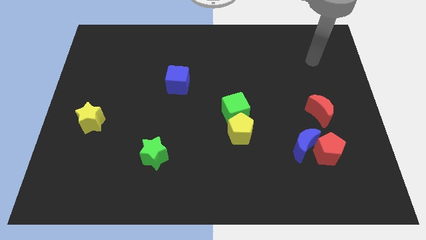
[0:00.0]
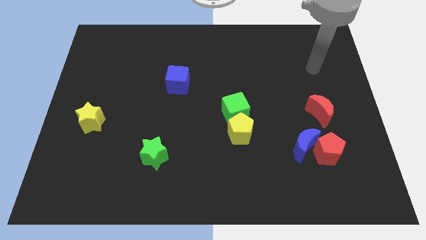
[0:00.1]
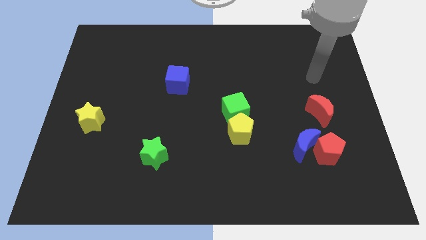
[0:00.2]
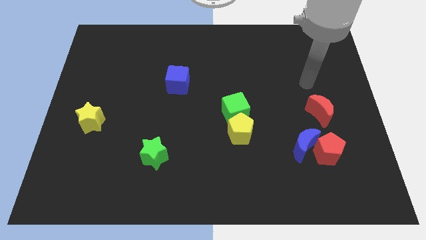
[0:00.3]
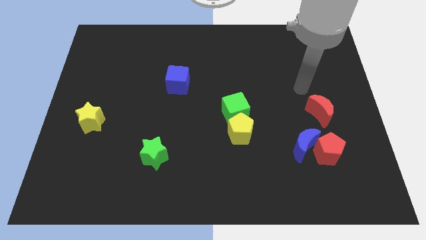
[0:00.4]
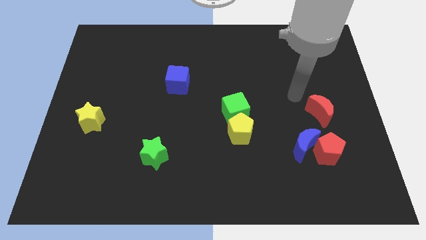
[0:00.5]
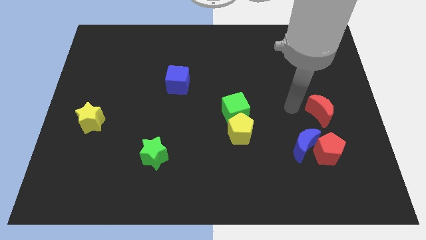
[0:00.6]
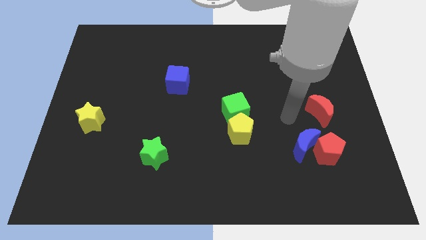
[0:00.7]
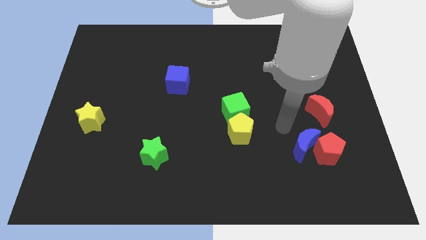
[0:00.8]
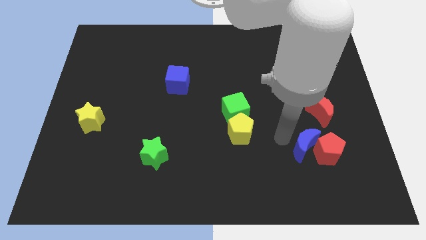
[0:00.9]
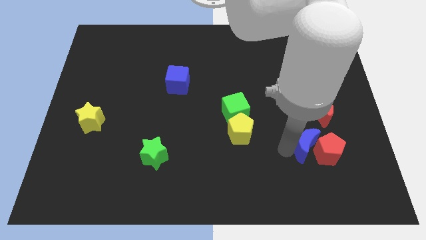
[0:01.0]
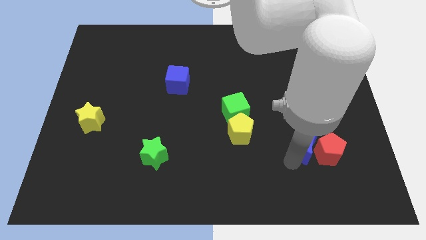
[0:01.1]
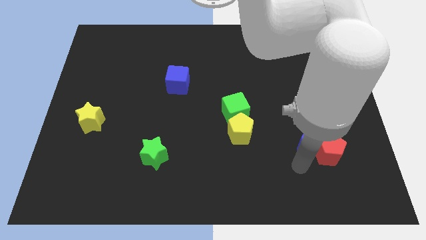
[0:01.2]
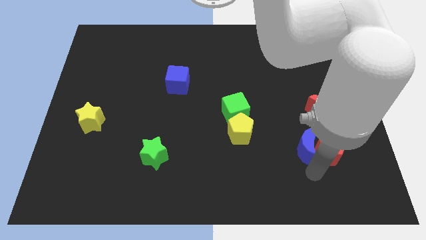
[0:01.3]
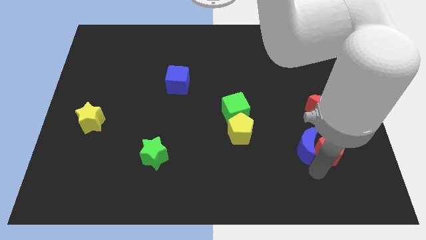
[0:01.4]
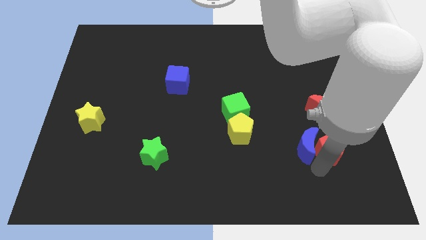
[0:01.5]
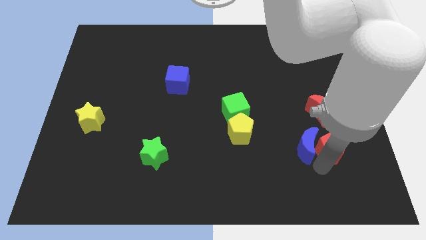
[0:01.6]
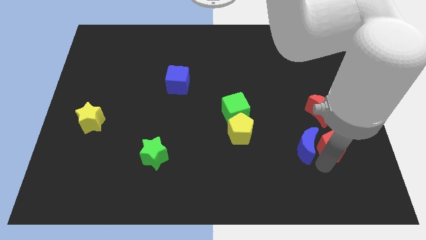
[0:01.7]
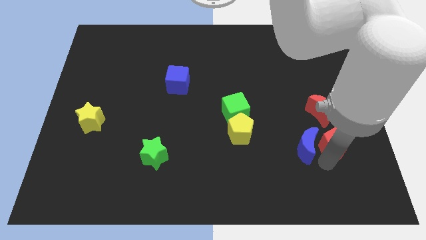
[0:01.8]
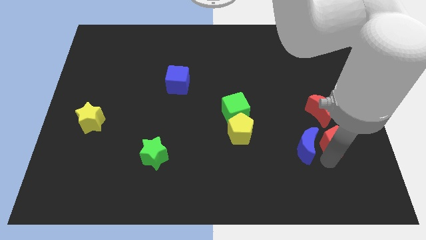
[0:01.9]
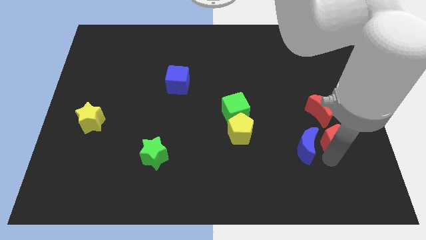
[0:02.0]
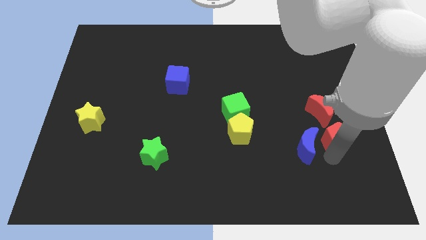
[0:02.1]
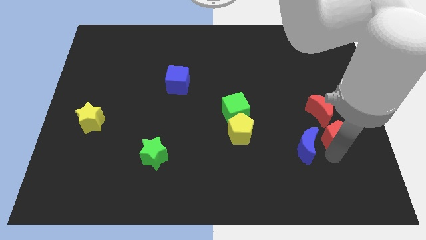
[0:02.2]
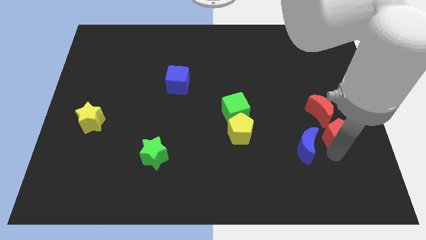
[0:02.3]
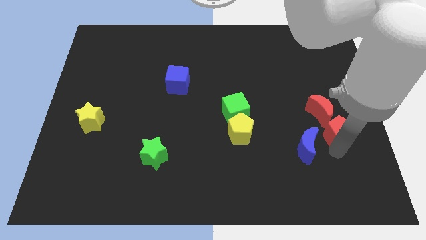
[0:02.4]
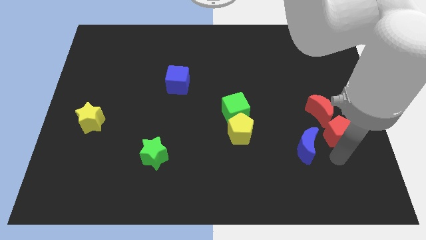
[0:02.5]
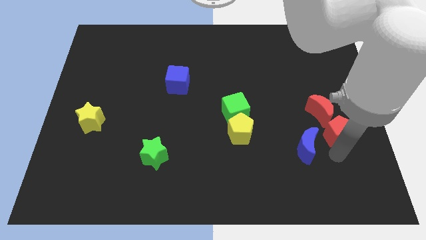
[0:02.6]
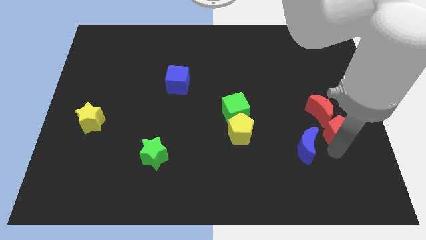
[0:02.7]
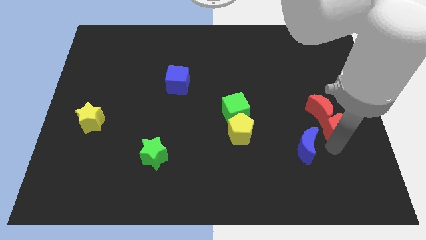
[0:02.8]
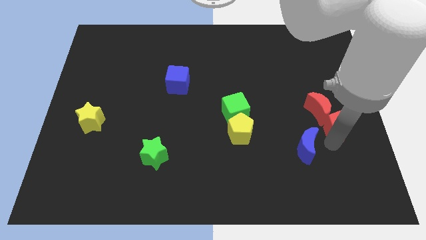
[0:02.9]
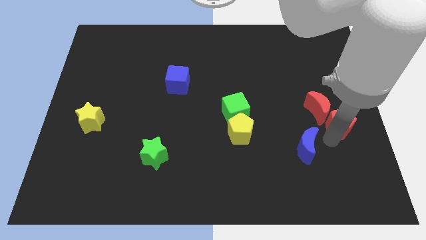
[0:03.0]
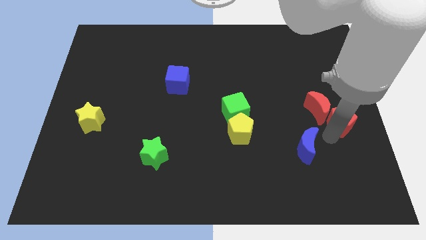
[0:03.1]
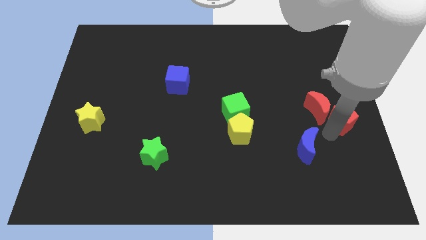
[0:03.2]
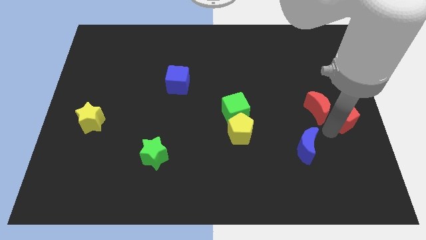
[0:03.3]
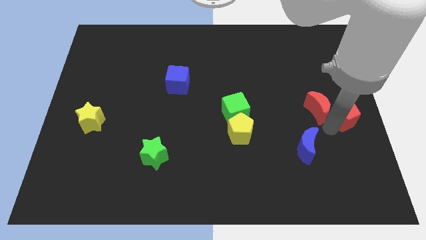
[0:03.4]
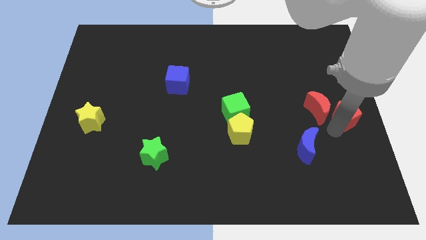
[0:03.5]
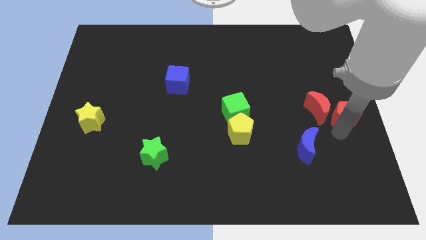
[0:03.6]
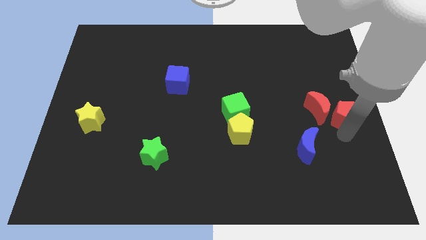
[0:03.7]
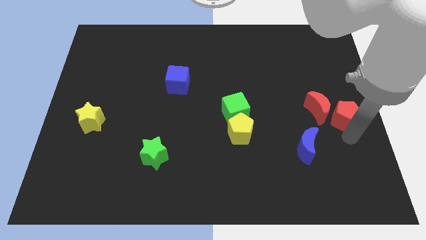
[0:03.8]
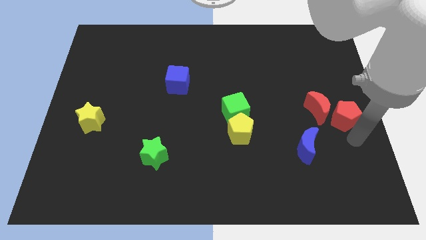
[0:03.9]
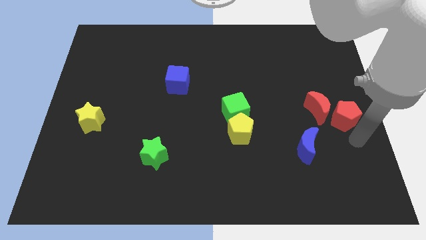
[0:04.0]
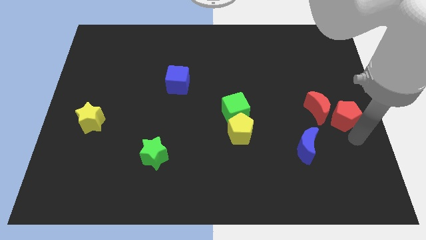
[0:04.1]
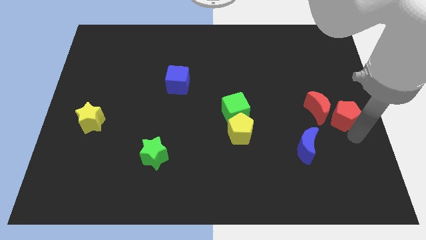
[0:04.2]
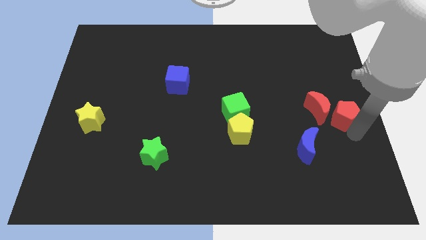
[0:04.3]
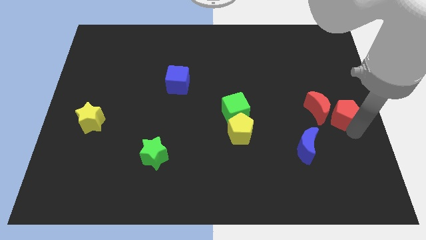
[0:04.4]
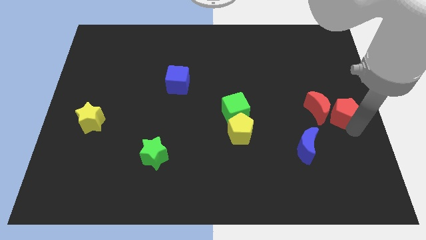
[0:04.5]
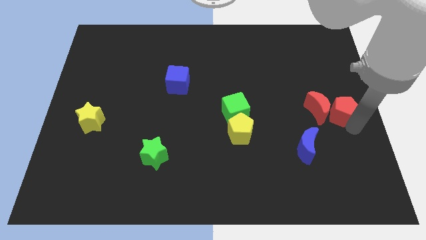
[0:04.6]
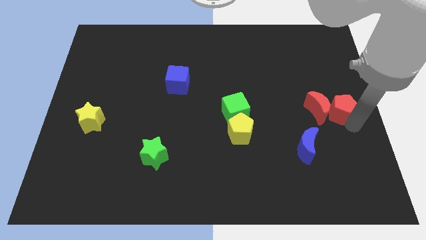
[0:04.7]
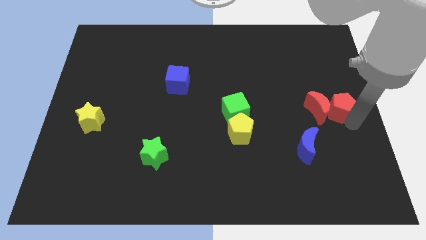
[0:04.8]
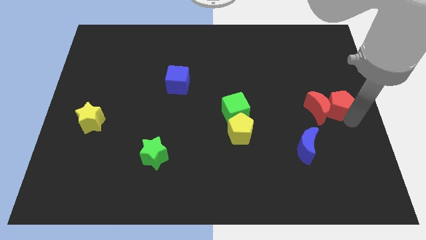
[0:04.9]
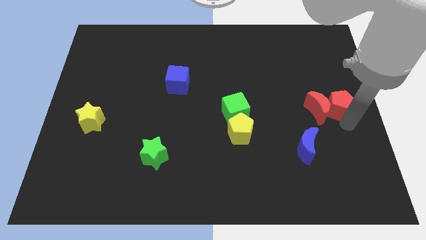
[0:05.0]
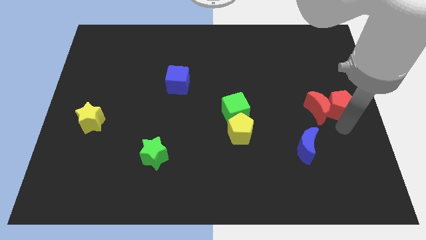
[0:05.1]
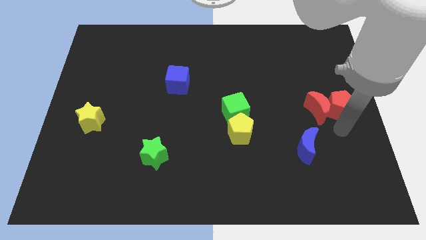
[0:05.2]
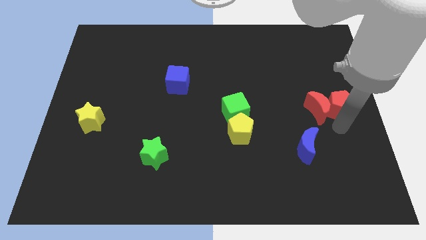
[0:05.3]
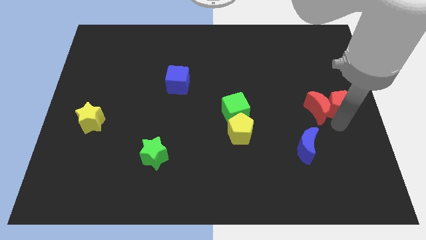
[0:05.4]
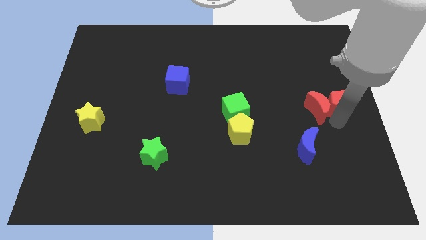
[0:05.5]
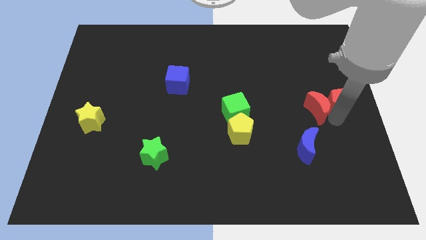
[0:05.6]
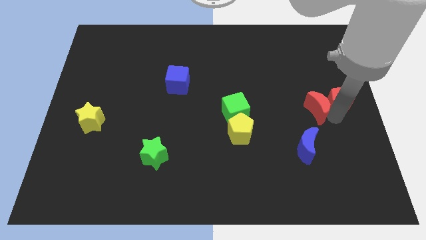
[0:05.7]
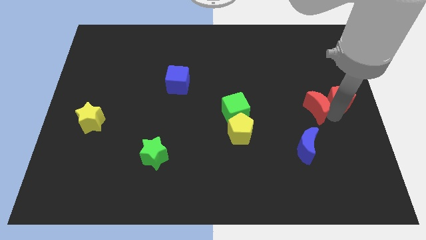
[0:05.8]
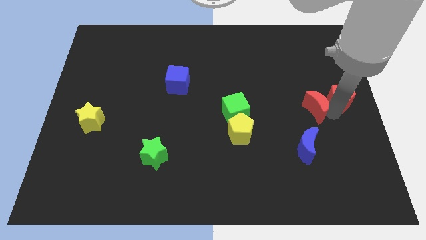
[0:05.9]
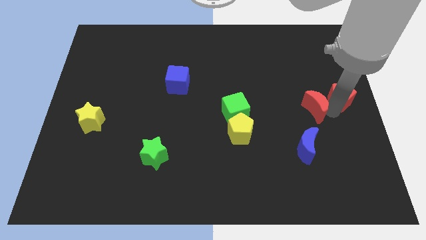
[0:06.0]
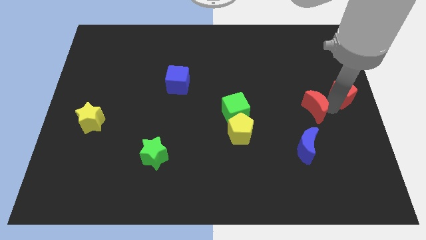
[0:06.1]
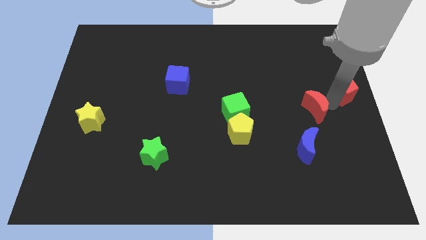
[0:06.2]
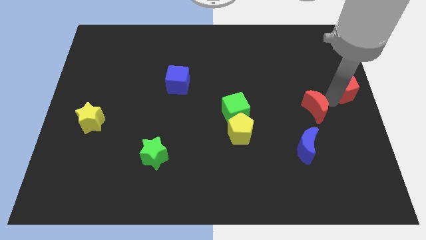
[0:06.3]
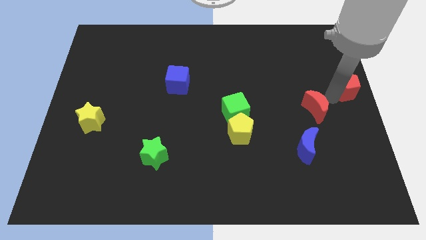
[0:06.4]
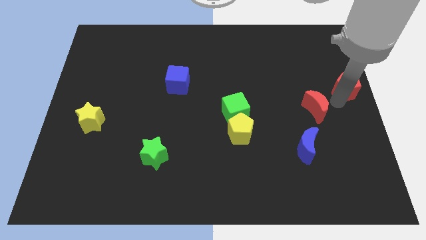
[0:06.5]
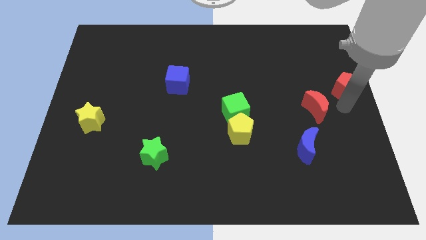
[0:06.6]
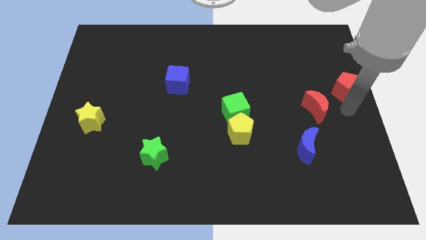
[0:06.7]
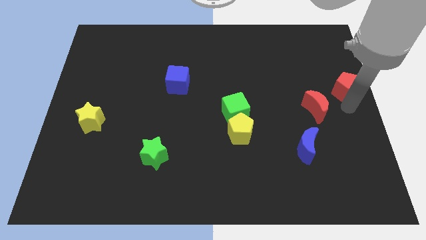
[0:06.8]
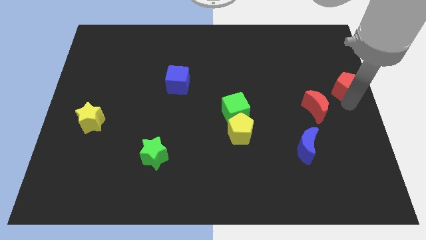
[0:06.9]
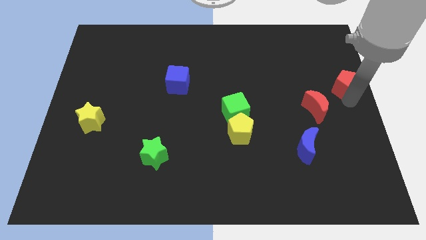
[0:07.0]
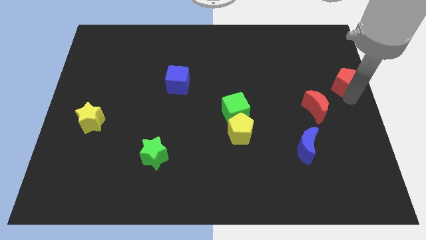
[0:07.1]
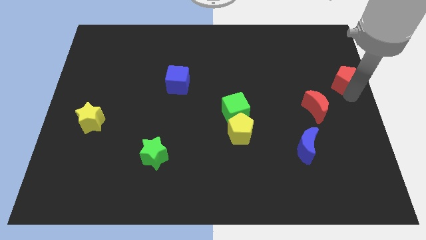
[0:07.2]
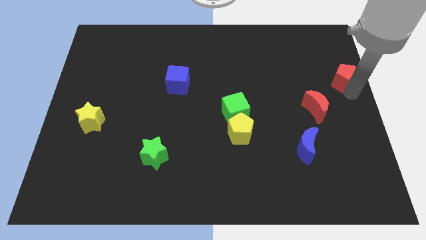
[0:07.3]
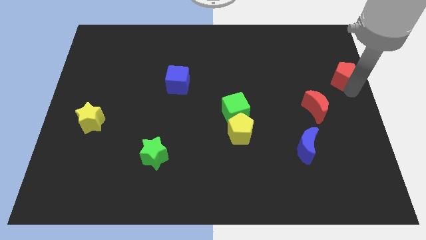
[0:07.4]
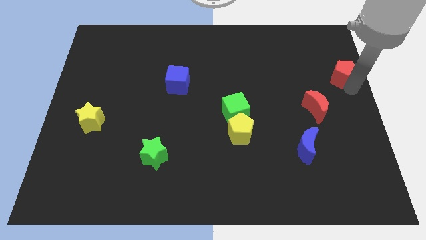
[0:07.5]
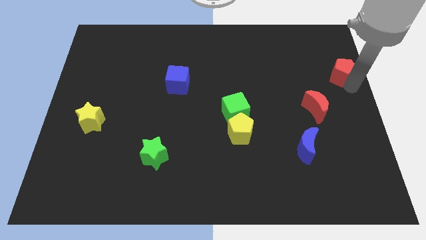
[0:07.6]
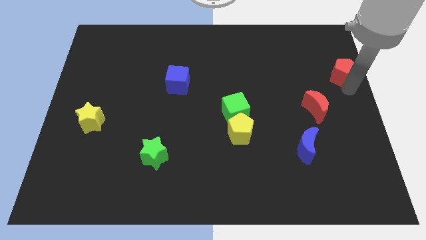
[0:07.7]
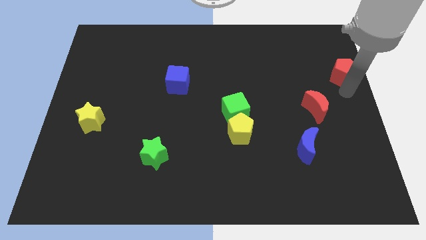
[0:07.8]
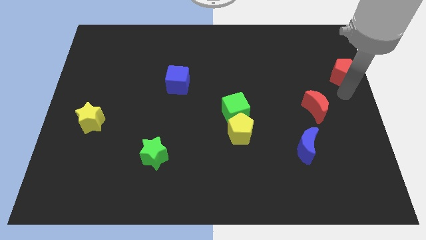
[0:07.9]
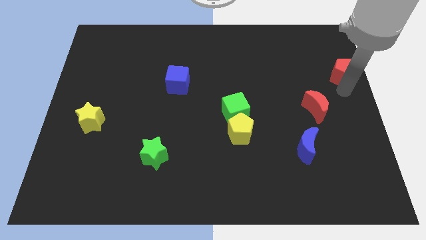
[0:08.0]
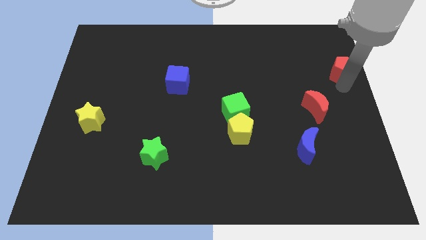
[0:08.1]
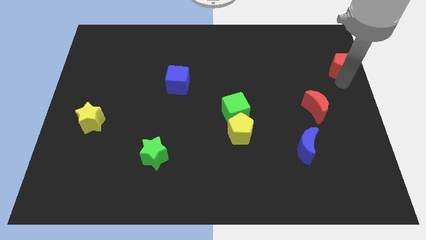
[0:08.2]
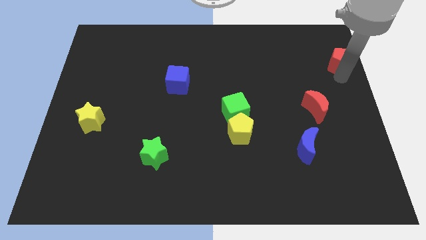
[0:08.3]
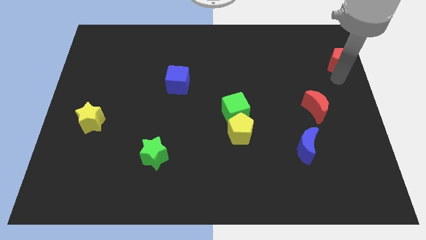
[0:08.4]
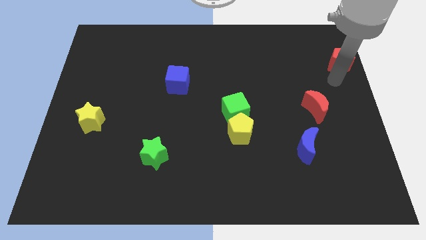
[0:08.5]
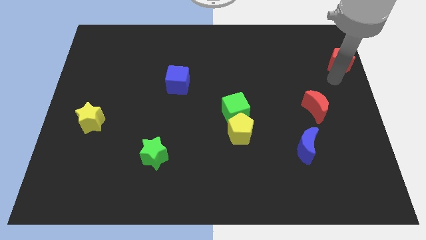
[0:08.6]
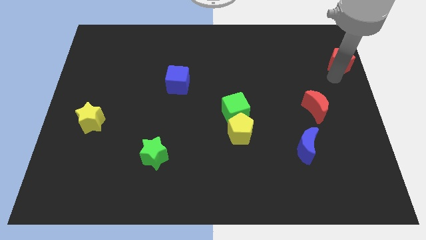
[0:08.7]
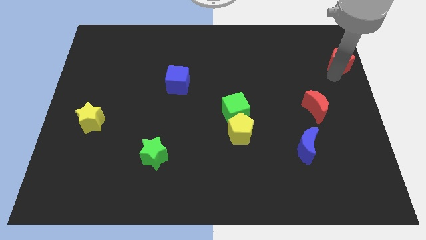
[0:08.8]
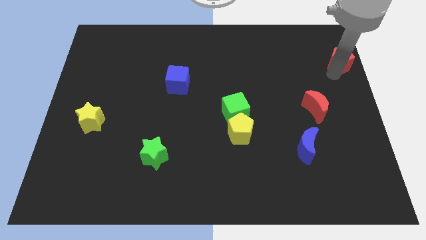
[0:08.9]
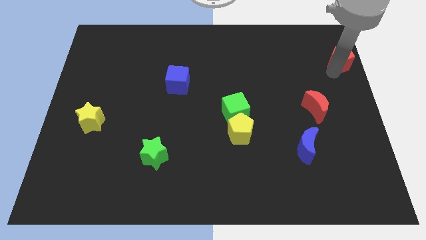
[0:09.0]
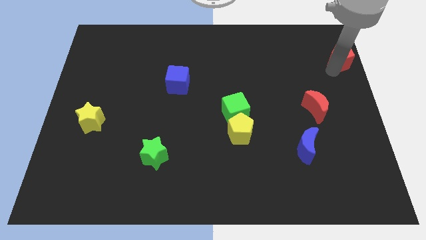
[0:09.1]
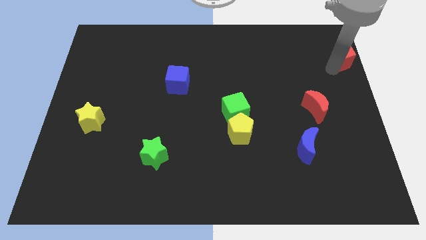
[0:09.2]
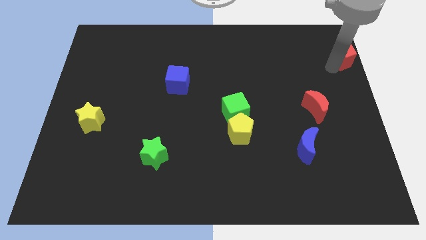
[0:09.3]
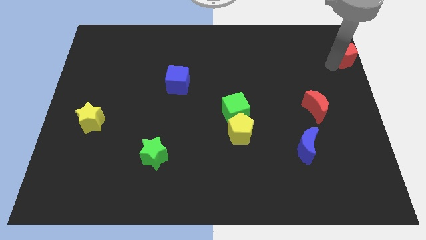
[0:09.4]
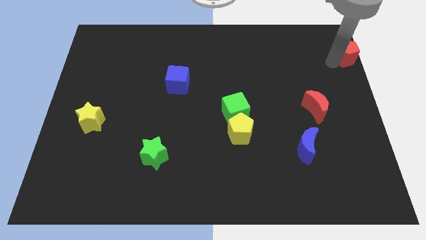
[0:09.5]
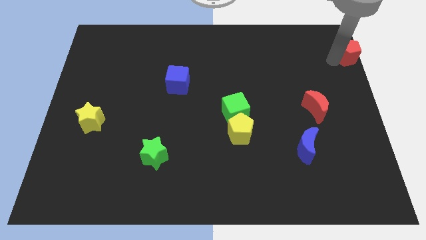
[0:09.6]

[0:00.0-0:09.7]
move the red pentagon to the top right
